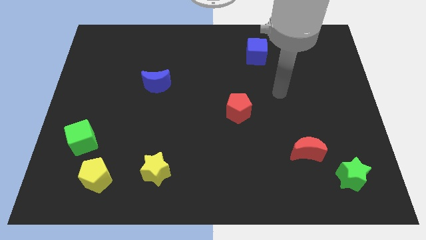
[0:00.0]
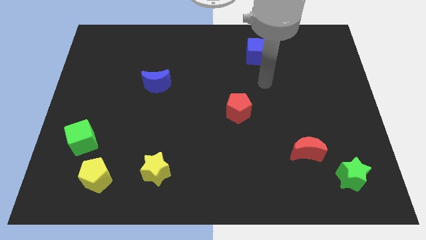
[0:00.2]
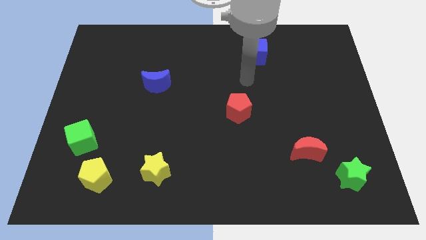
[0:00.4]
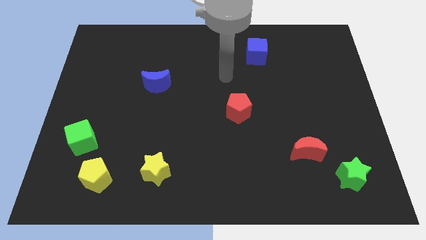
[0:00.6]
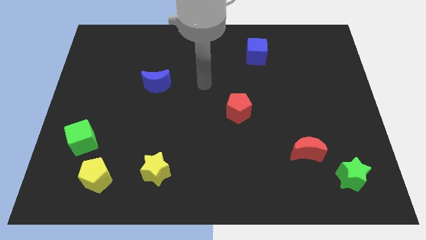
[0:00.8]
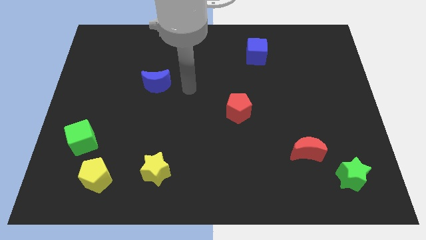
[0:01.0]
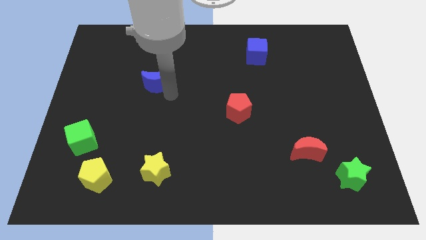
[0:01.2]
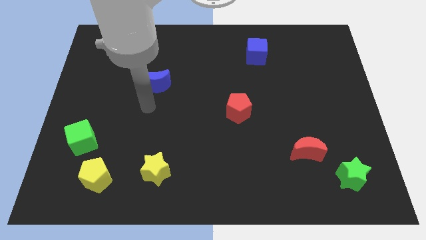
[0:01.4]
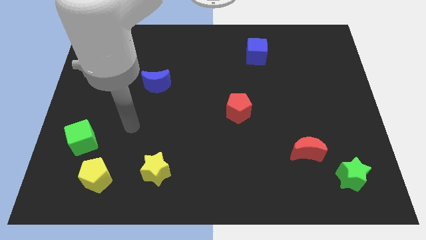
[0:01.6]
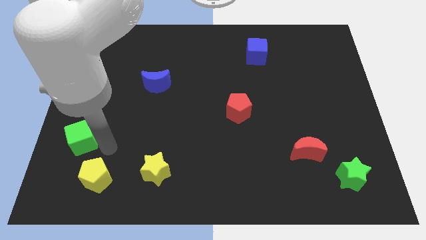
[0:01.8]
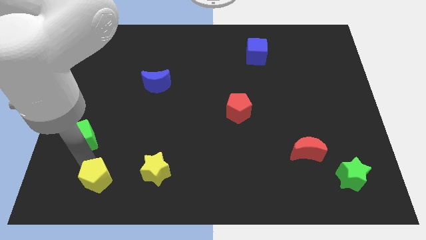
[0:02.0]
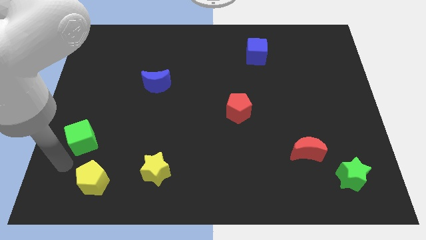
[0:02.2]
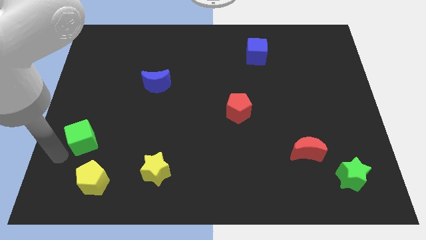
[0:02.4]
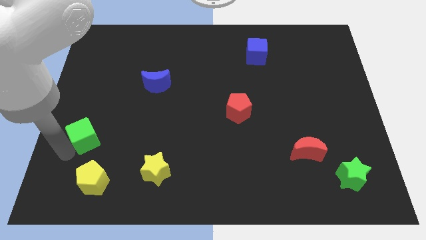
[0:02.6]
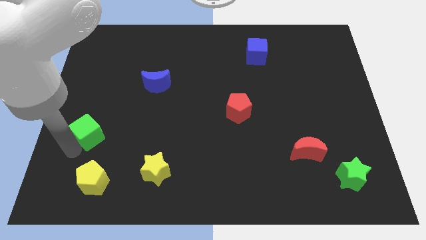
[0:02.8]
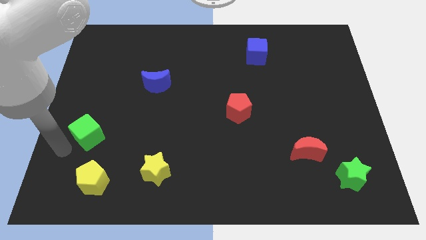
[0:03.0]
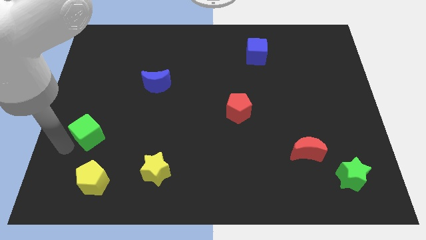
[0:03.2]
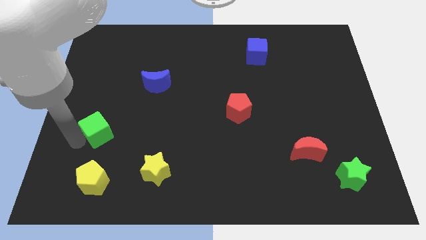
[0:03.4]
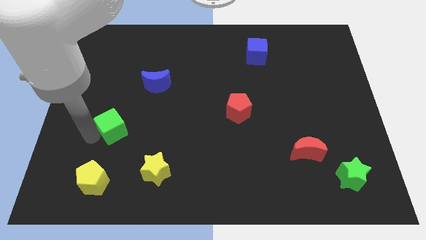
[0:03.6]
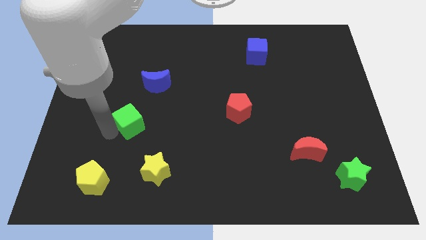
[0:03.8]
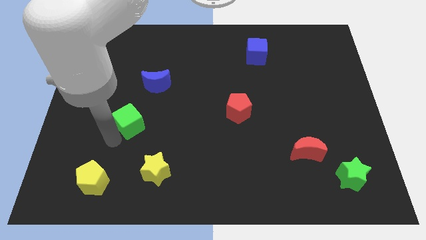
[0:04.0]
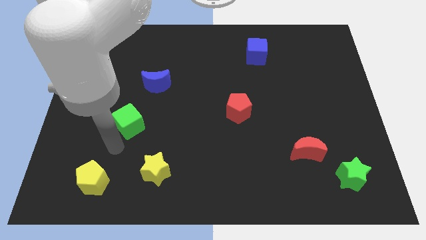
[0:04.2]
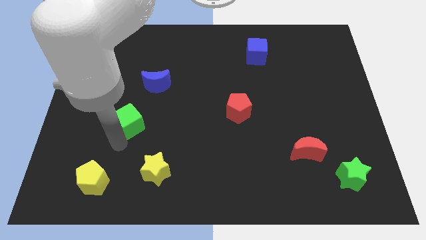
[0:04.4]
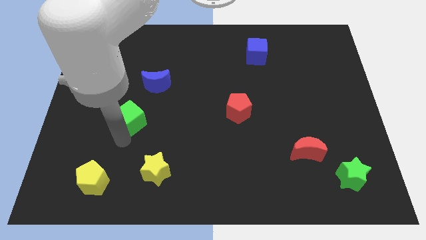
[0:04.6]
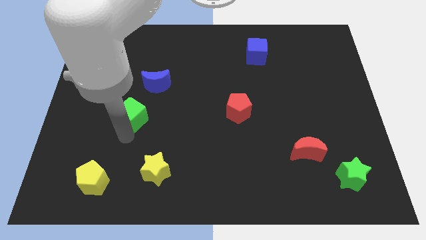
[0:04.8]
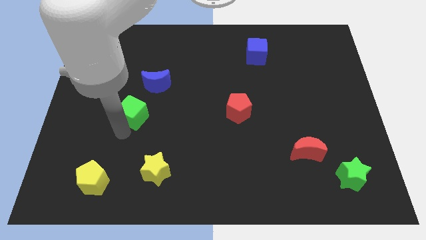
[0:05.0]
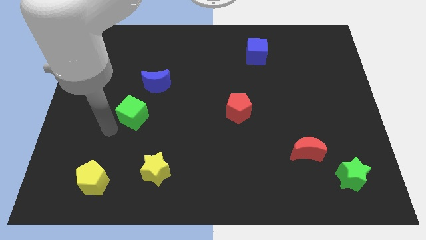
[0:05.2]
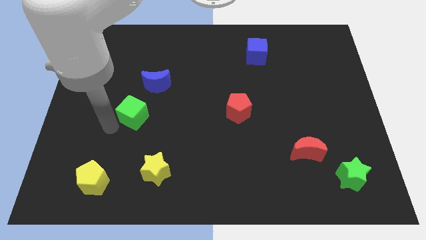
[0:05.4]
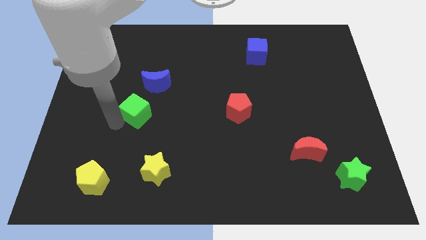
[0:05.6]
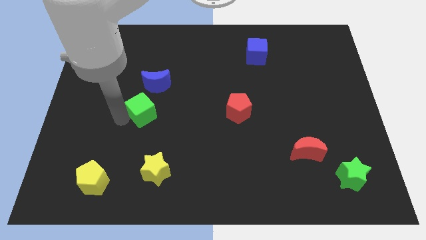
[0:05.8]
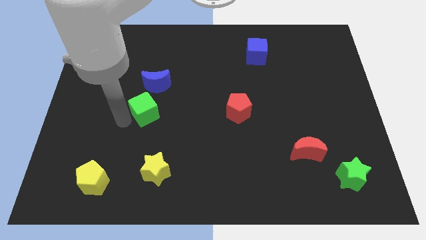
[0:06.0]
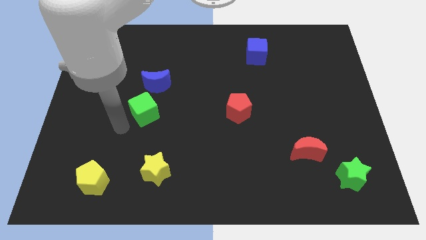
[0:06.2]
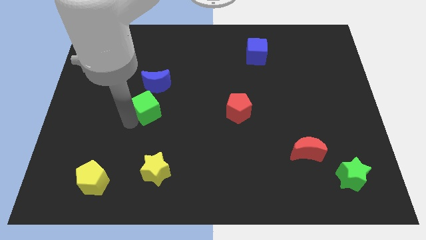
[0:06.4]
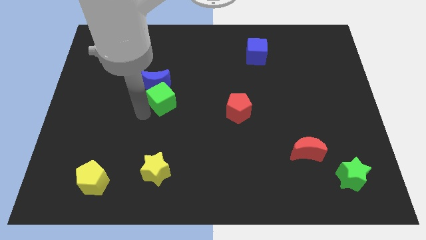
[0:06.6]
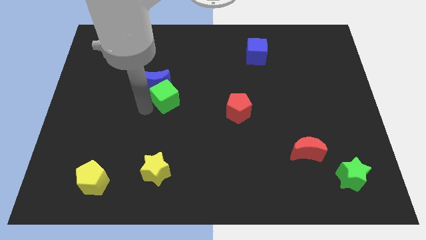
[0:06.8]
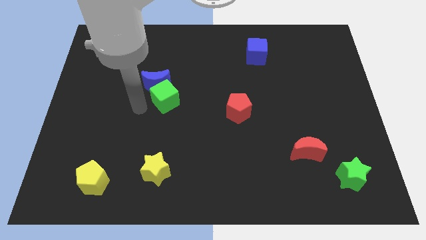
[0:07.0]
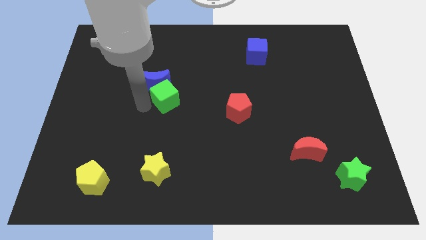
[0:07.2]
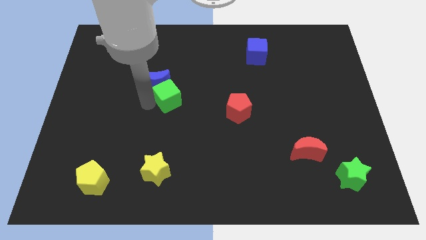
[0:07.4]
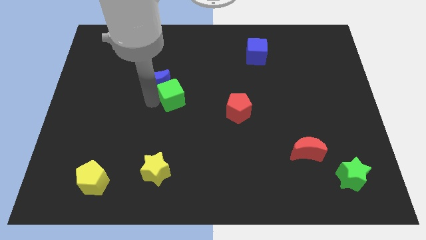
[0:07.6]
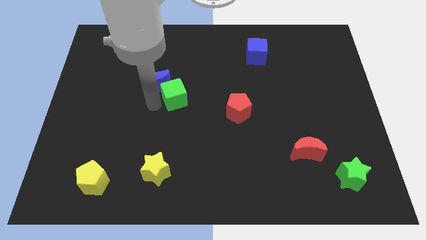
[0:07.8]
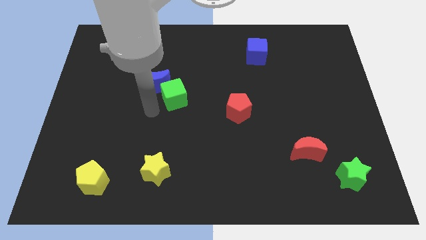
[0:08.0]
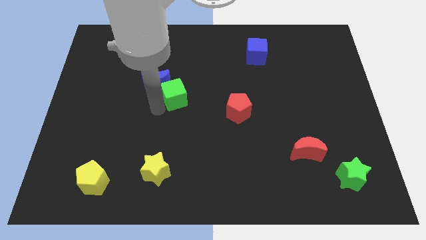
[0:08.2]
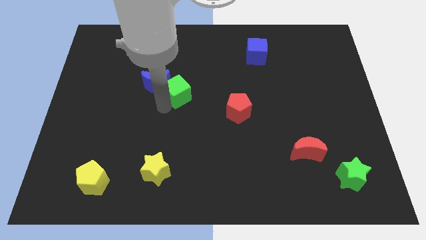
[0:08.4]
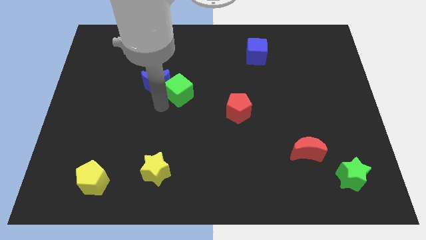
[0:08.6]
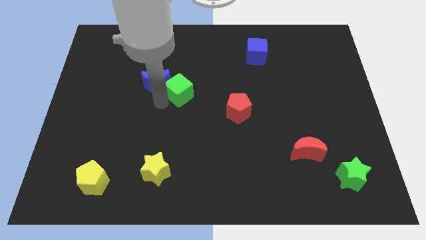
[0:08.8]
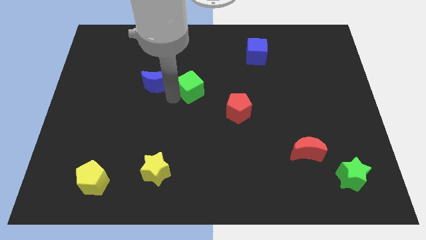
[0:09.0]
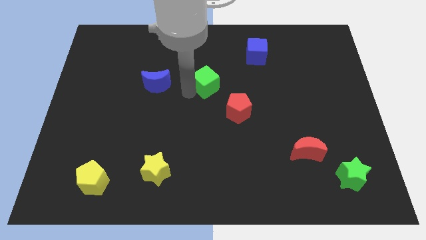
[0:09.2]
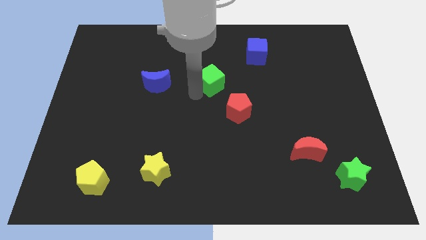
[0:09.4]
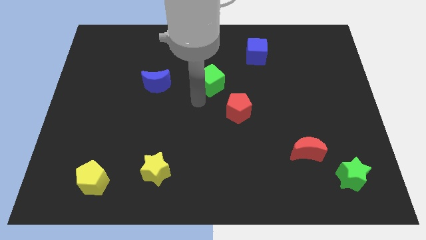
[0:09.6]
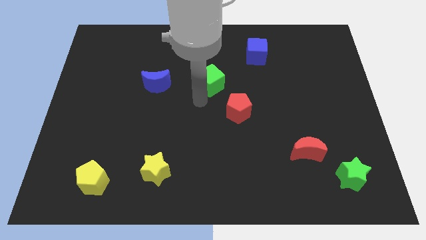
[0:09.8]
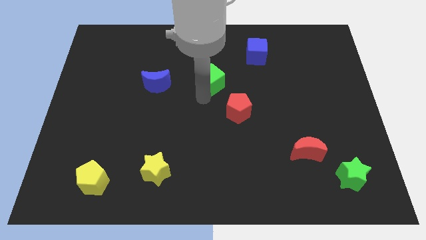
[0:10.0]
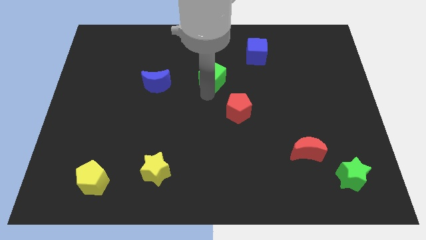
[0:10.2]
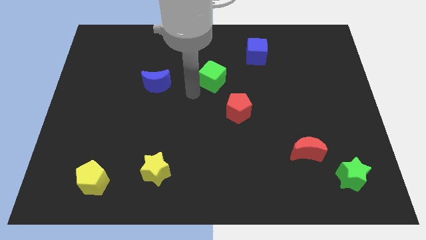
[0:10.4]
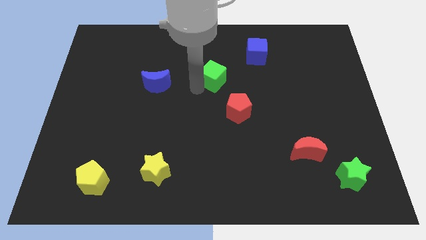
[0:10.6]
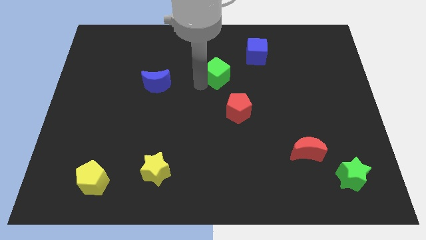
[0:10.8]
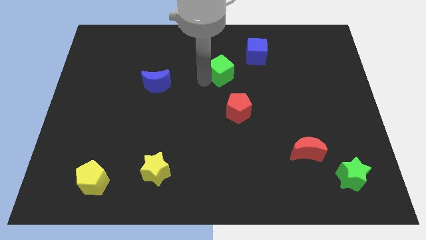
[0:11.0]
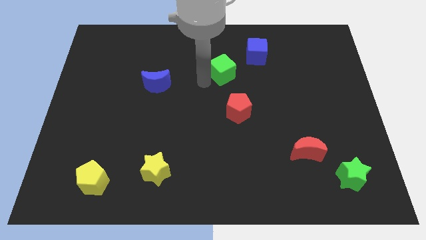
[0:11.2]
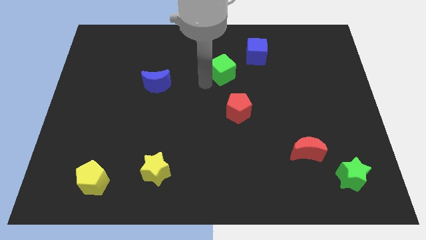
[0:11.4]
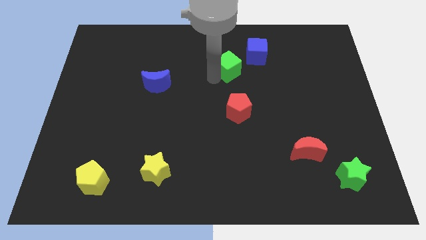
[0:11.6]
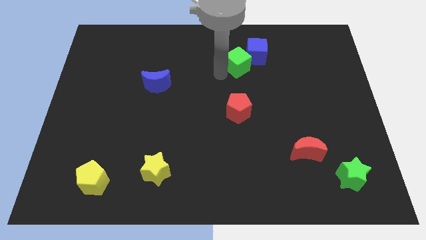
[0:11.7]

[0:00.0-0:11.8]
push the green cube close to the blue cube

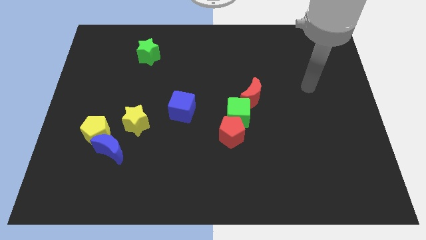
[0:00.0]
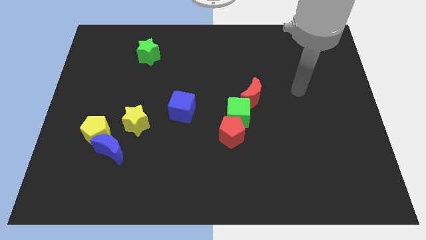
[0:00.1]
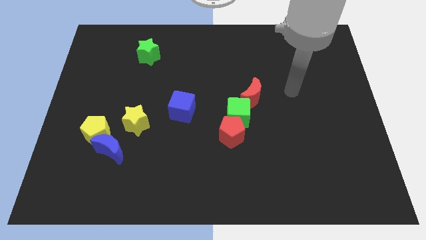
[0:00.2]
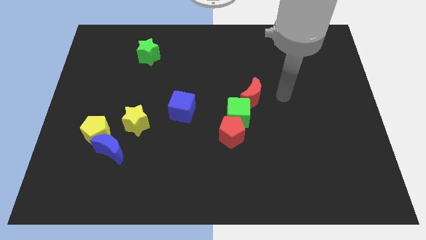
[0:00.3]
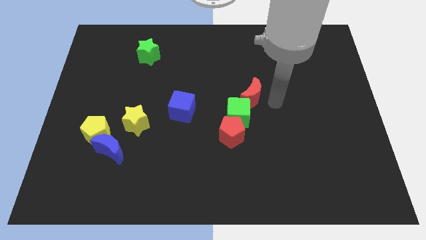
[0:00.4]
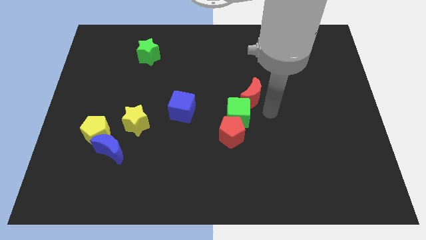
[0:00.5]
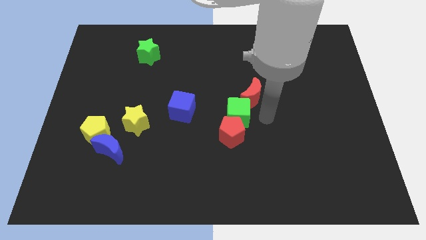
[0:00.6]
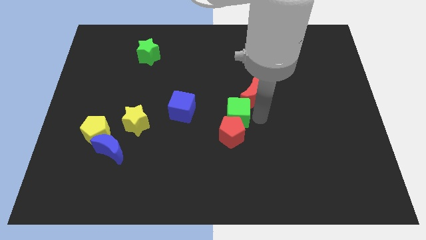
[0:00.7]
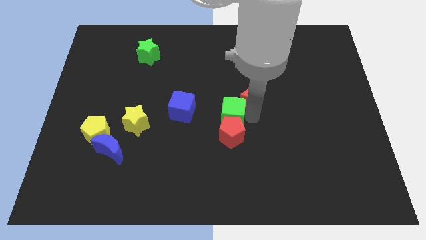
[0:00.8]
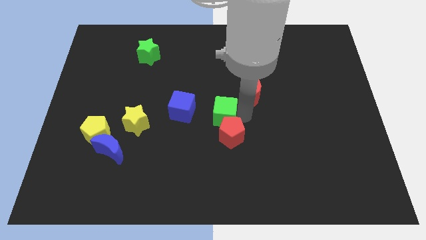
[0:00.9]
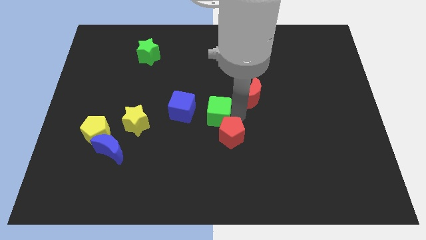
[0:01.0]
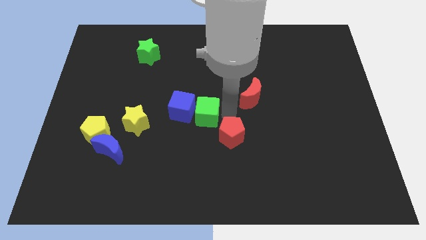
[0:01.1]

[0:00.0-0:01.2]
move the green cube to the blue cube

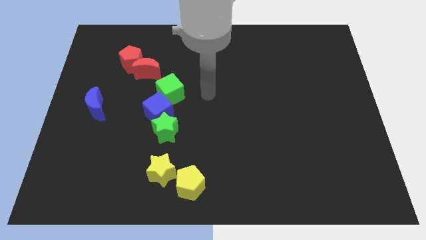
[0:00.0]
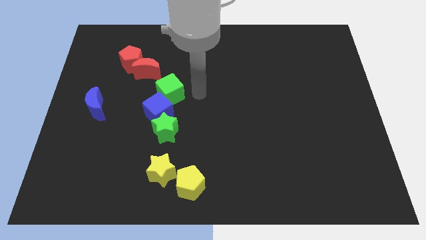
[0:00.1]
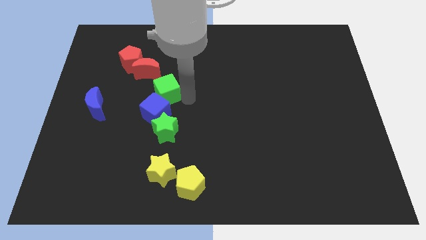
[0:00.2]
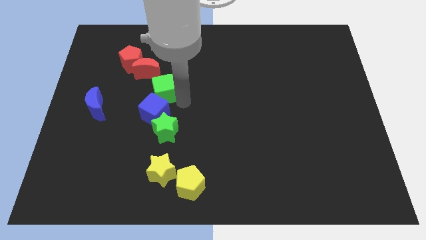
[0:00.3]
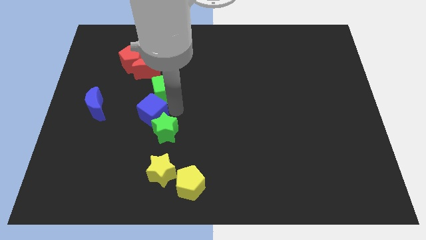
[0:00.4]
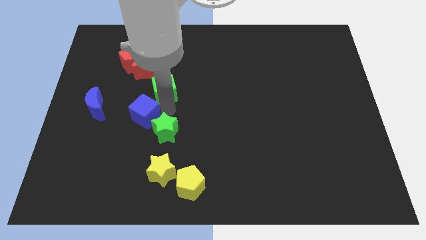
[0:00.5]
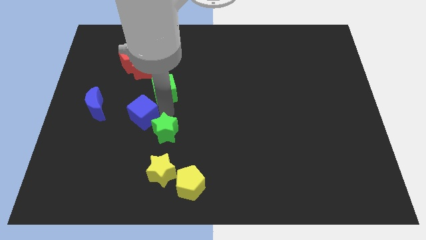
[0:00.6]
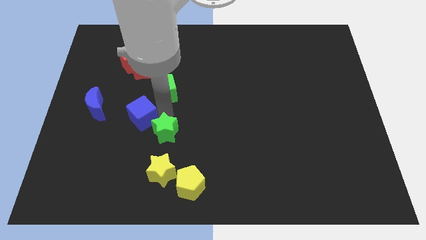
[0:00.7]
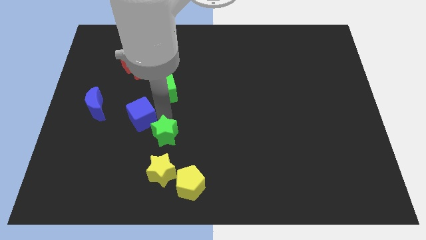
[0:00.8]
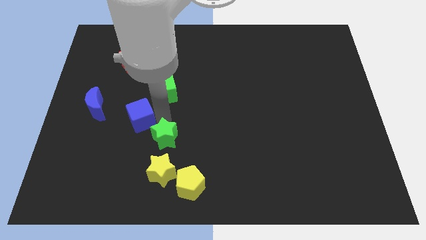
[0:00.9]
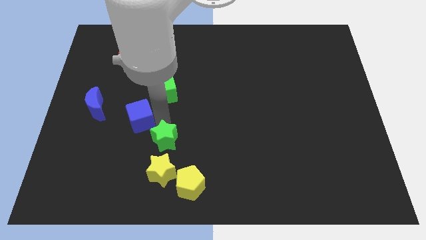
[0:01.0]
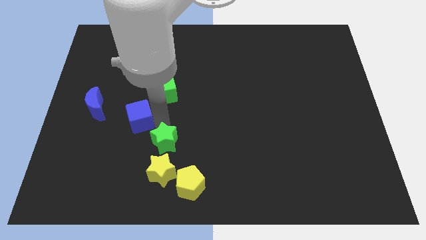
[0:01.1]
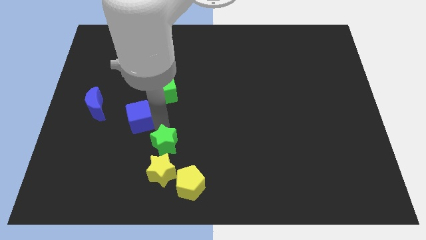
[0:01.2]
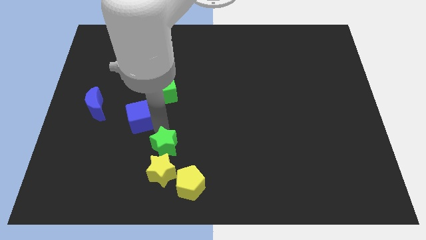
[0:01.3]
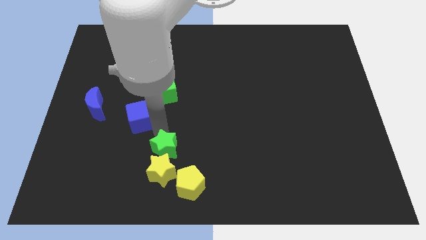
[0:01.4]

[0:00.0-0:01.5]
move the green star close to the yellow star
